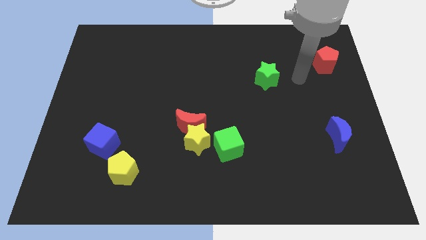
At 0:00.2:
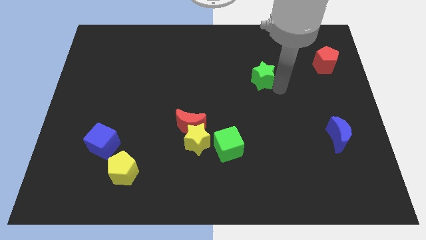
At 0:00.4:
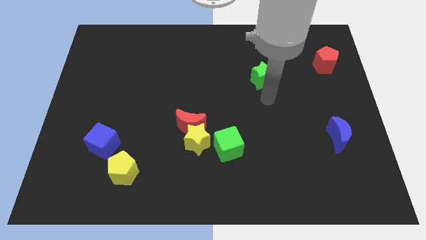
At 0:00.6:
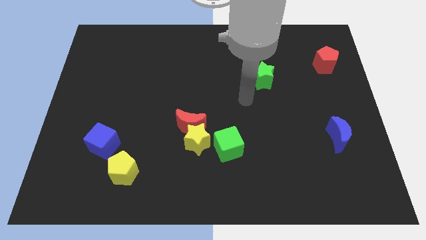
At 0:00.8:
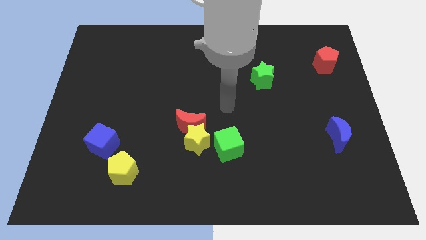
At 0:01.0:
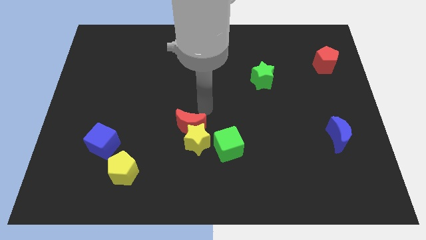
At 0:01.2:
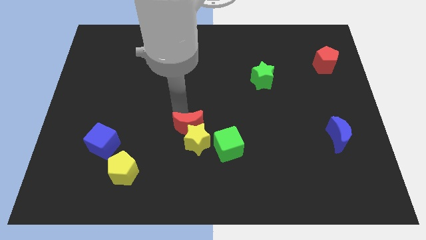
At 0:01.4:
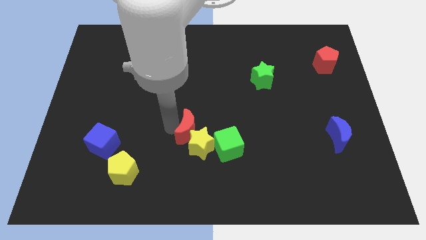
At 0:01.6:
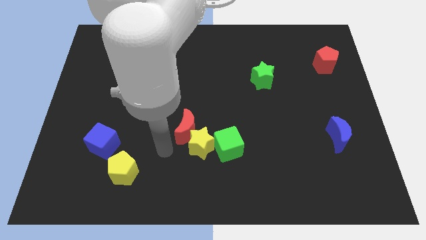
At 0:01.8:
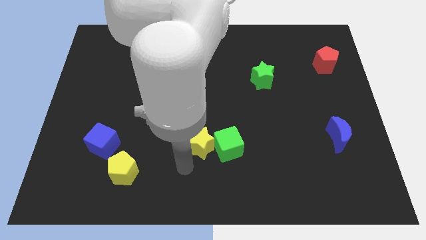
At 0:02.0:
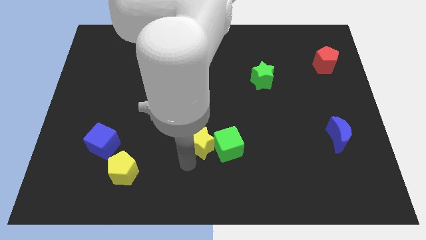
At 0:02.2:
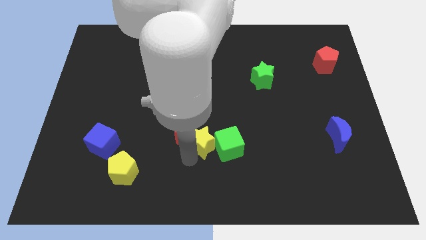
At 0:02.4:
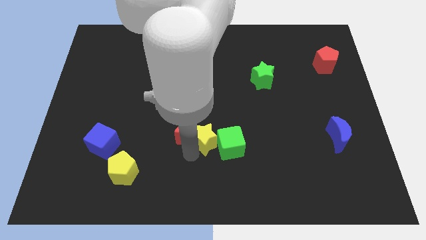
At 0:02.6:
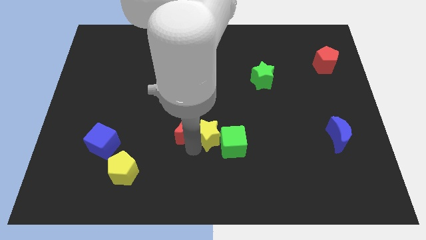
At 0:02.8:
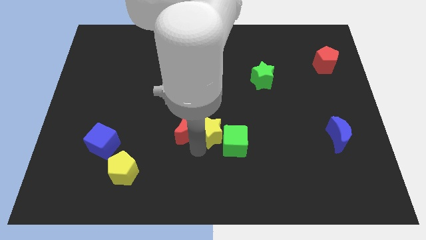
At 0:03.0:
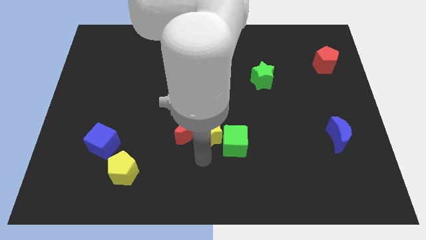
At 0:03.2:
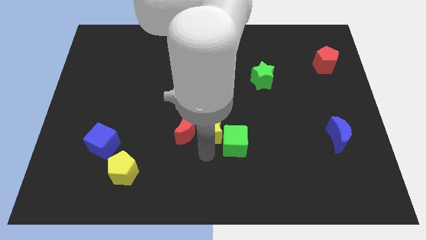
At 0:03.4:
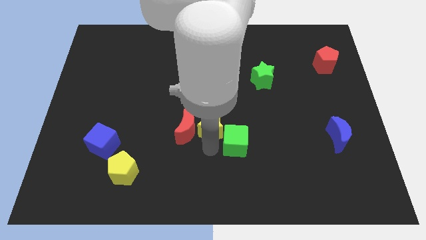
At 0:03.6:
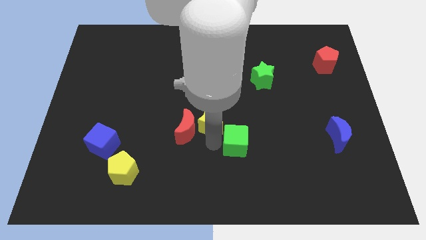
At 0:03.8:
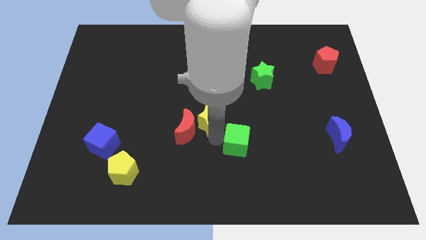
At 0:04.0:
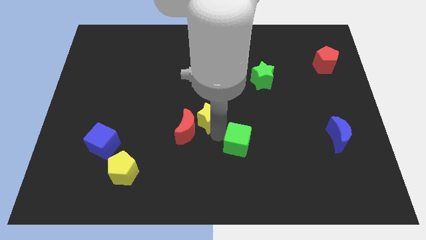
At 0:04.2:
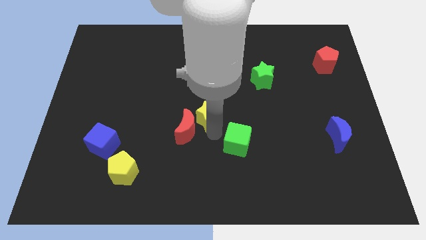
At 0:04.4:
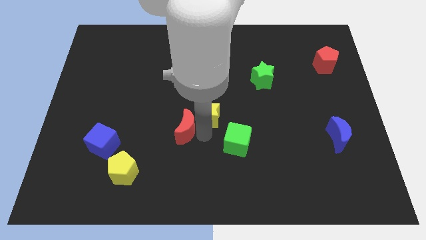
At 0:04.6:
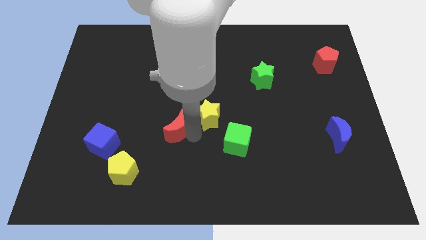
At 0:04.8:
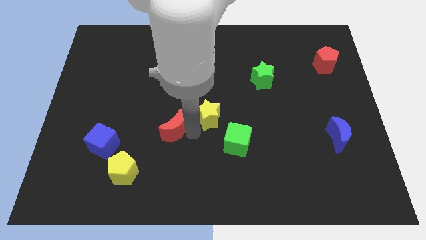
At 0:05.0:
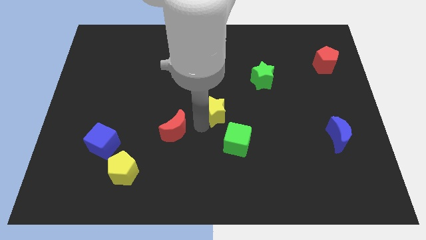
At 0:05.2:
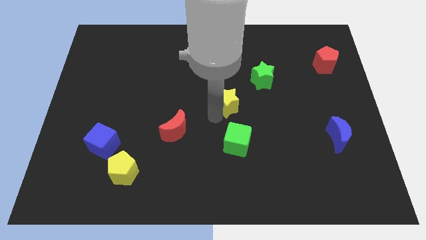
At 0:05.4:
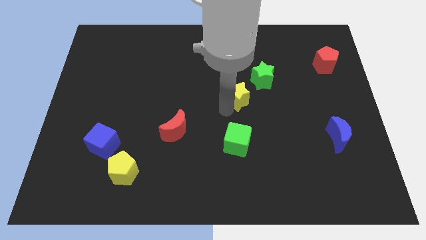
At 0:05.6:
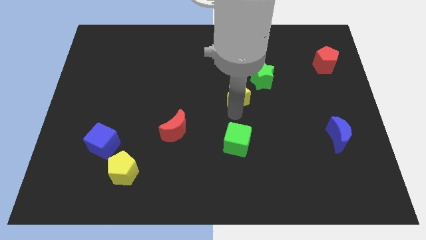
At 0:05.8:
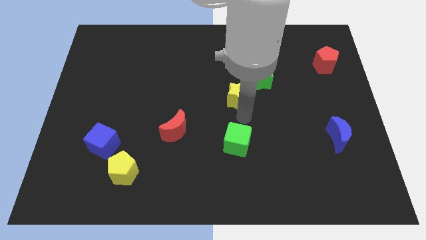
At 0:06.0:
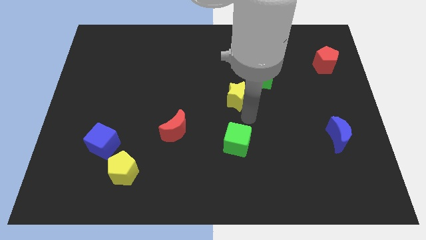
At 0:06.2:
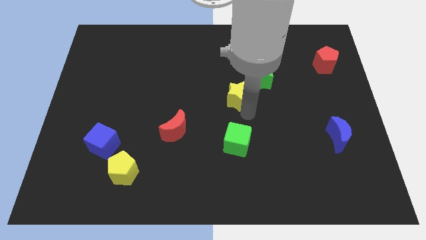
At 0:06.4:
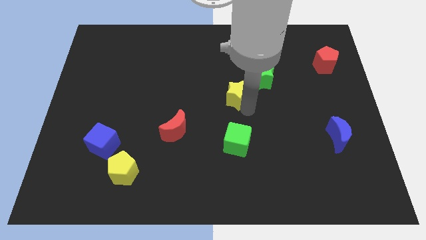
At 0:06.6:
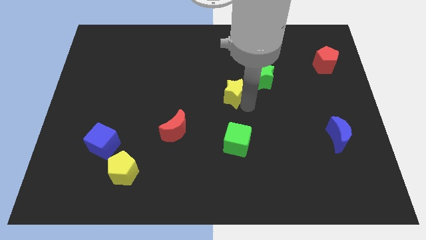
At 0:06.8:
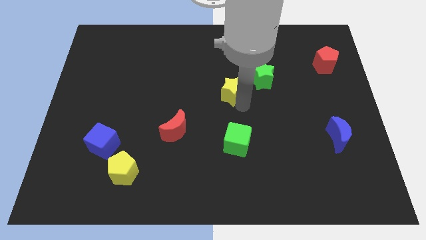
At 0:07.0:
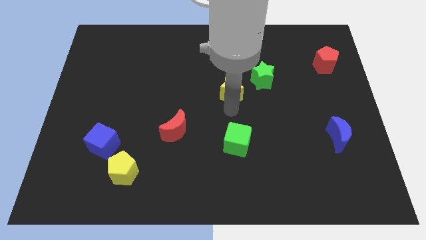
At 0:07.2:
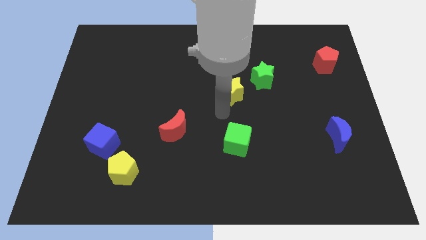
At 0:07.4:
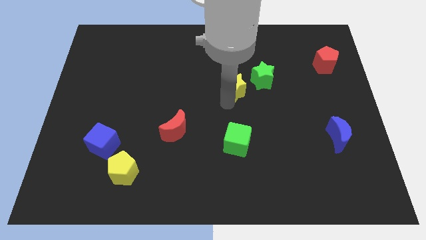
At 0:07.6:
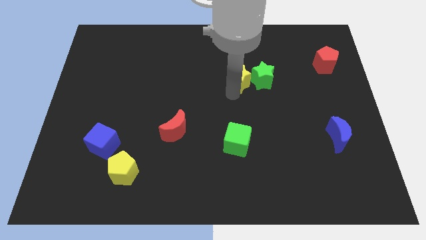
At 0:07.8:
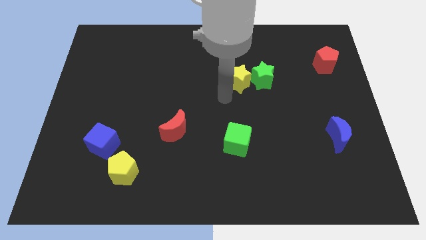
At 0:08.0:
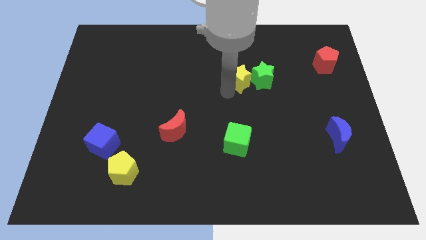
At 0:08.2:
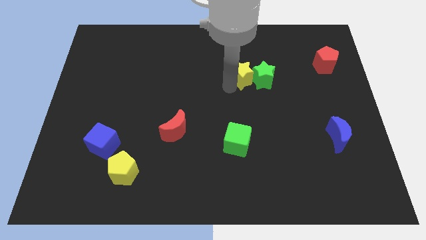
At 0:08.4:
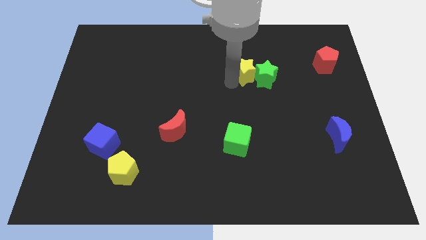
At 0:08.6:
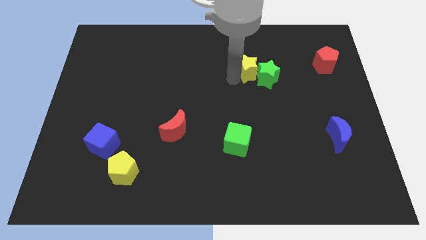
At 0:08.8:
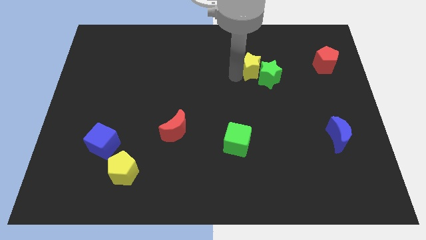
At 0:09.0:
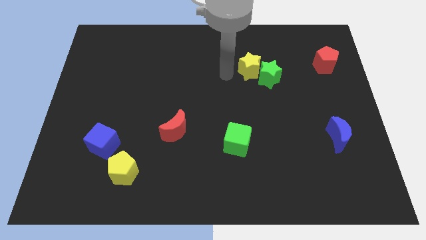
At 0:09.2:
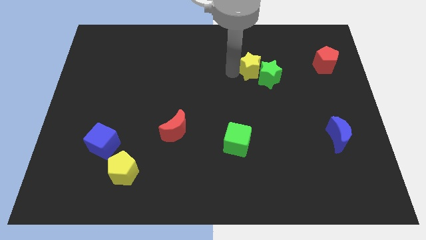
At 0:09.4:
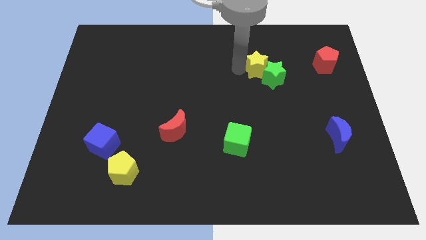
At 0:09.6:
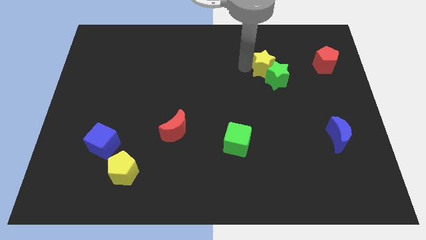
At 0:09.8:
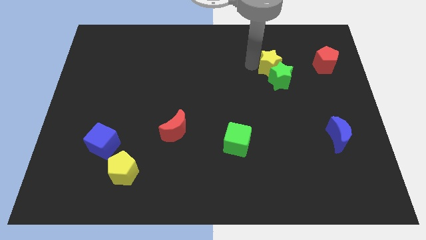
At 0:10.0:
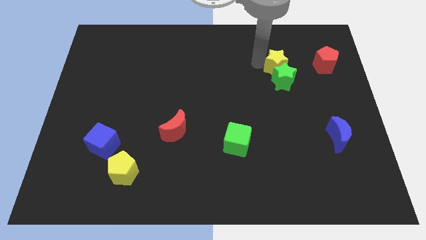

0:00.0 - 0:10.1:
slide the yellow star to the top right side of the green star

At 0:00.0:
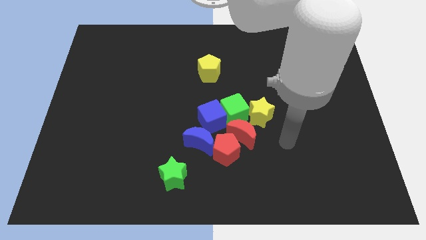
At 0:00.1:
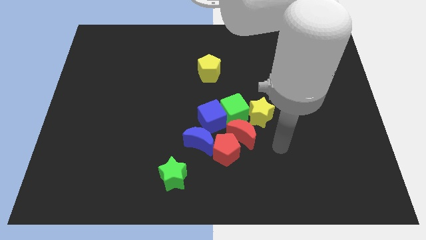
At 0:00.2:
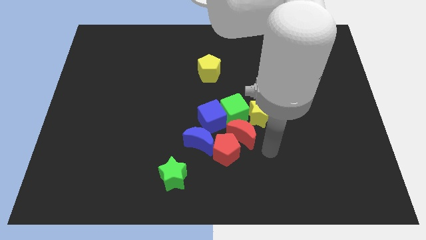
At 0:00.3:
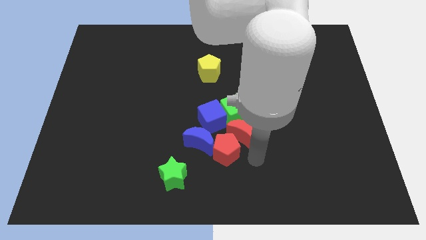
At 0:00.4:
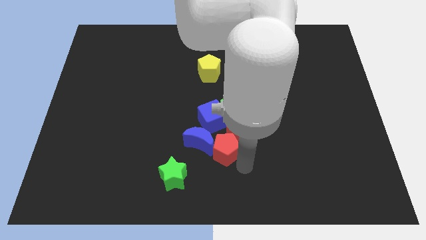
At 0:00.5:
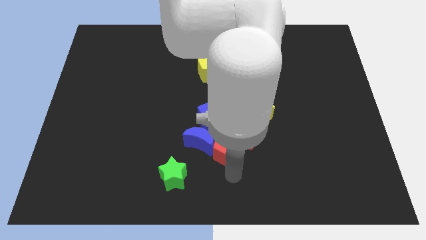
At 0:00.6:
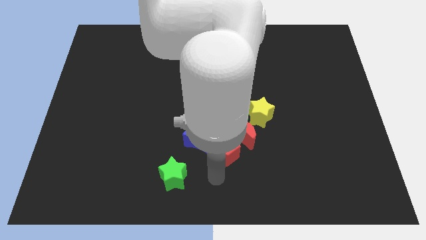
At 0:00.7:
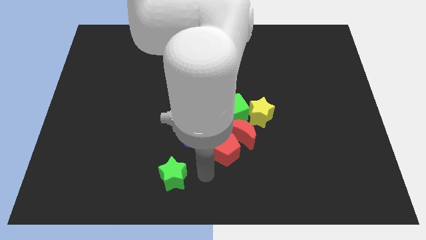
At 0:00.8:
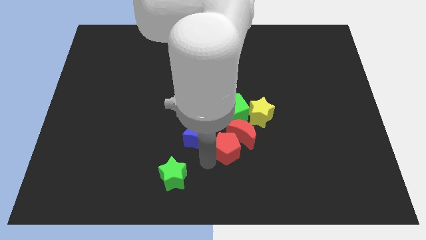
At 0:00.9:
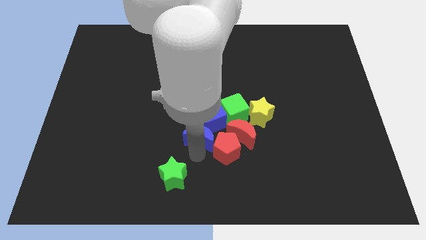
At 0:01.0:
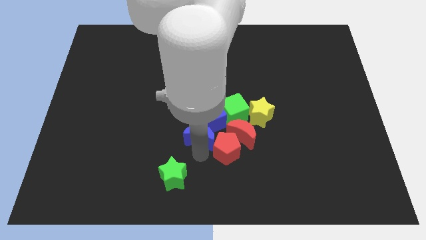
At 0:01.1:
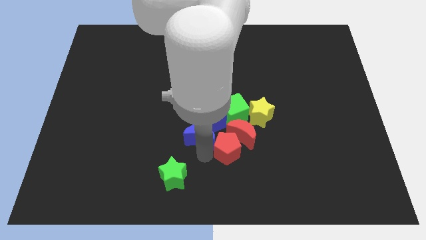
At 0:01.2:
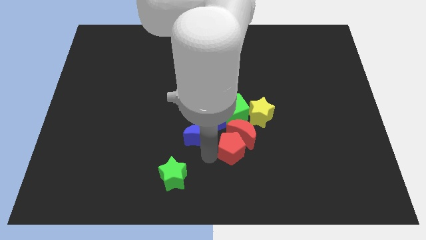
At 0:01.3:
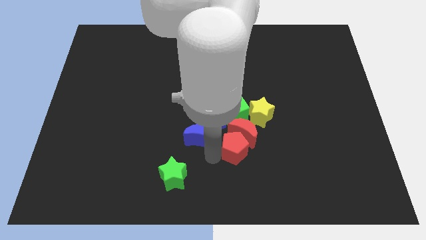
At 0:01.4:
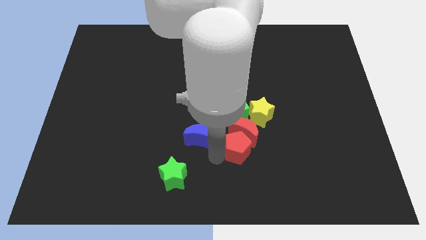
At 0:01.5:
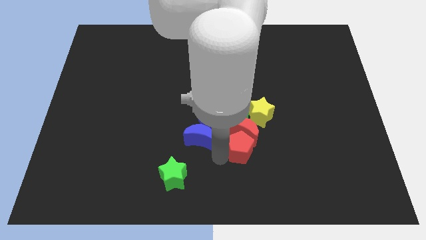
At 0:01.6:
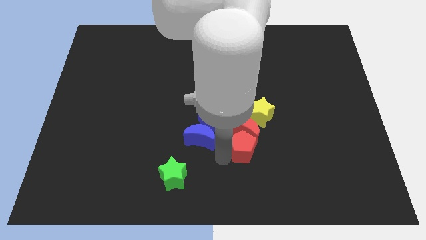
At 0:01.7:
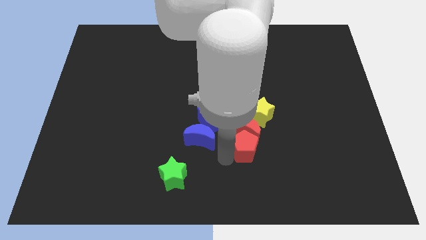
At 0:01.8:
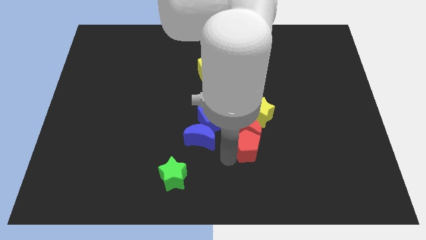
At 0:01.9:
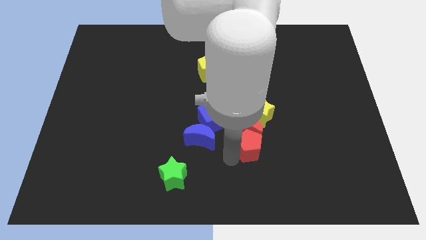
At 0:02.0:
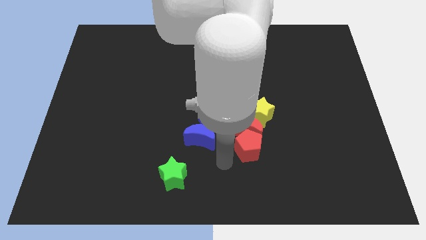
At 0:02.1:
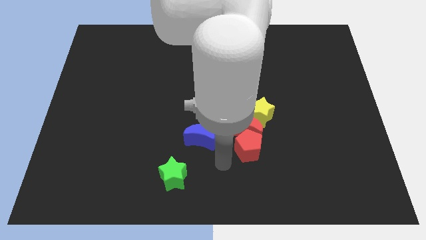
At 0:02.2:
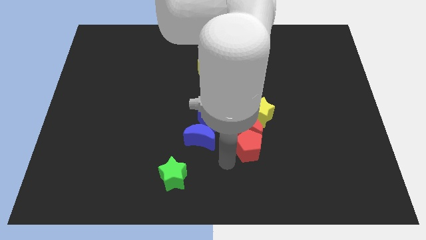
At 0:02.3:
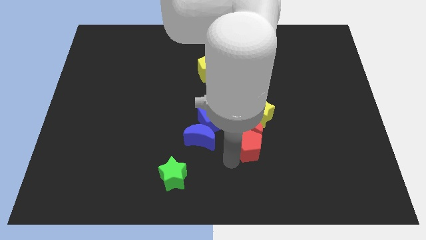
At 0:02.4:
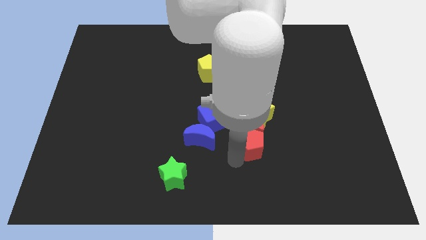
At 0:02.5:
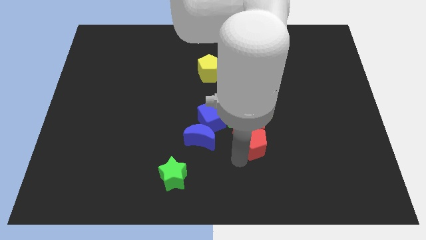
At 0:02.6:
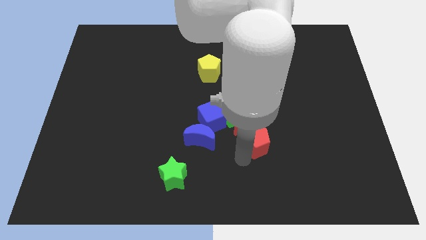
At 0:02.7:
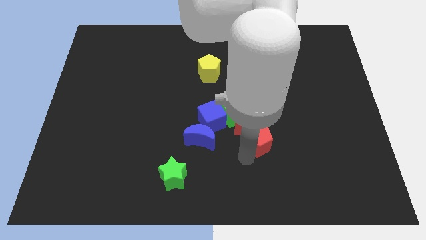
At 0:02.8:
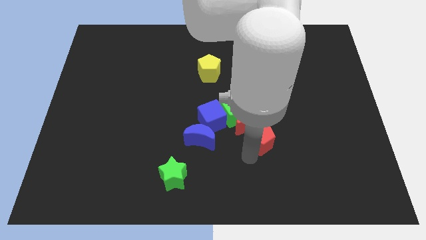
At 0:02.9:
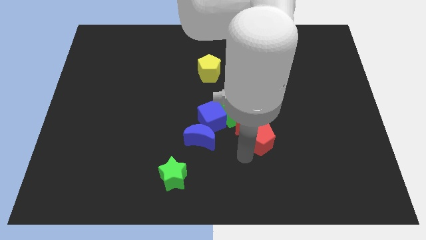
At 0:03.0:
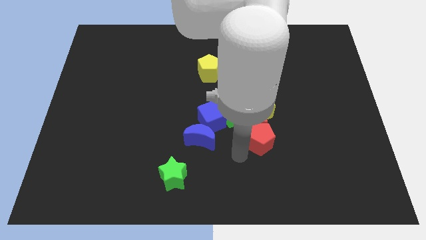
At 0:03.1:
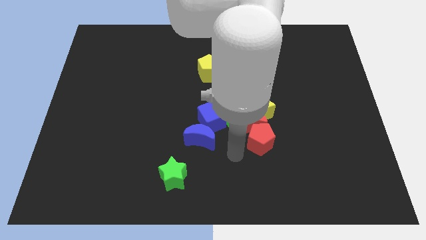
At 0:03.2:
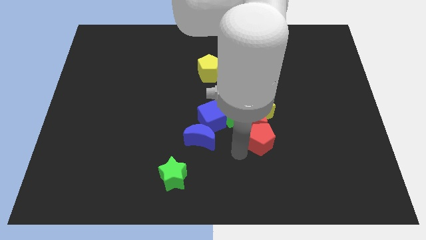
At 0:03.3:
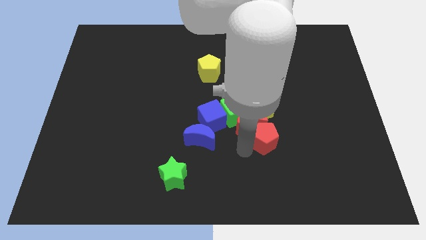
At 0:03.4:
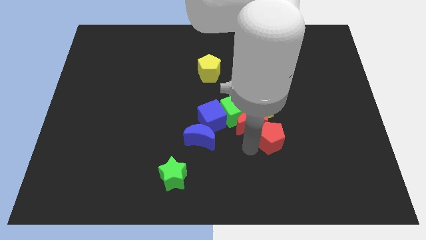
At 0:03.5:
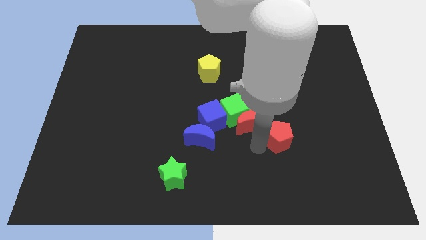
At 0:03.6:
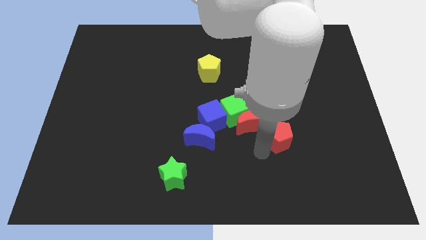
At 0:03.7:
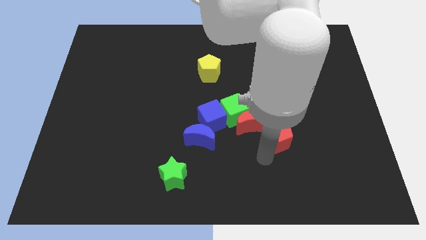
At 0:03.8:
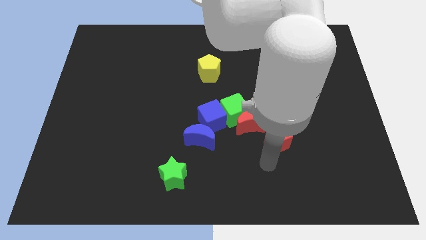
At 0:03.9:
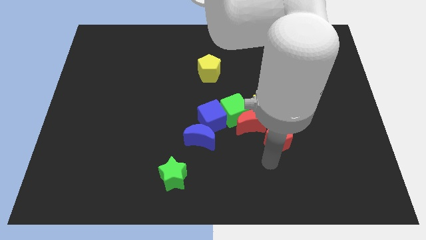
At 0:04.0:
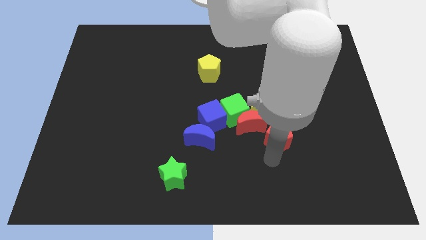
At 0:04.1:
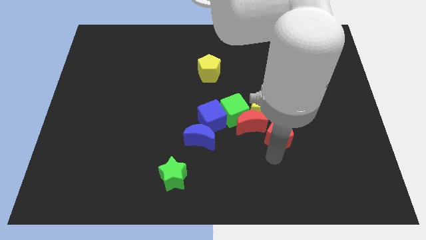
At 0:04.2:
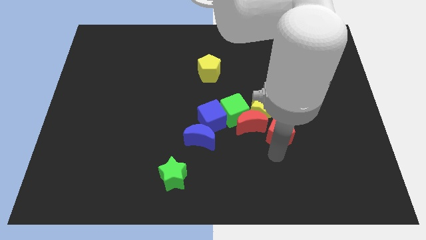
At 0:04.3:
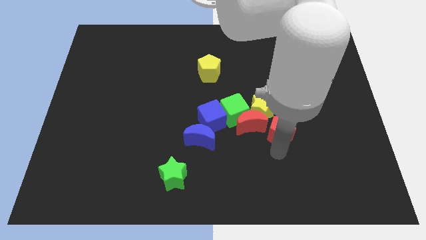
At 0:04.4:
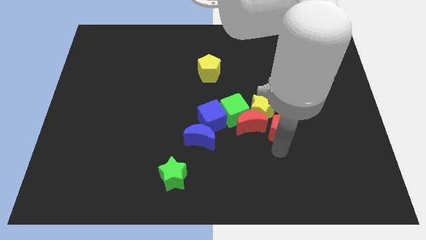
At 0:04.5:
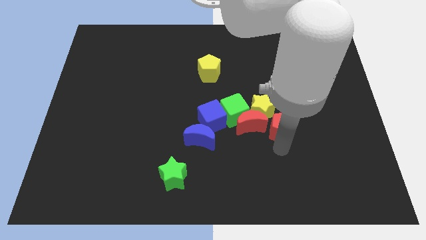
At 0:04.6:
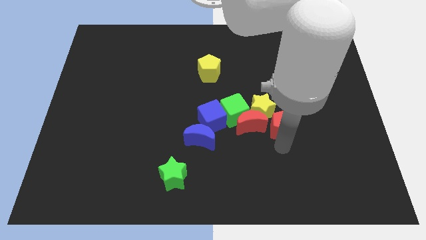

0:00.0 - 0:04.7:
put the red pentagon just right of the yellow star
